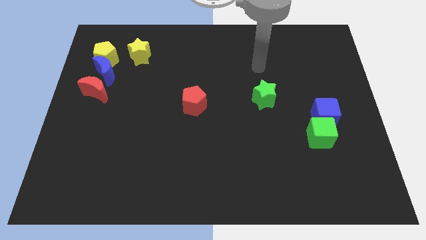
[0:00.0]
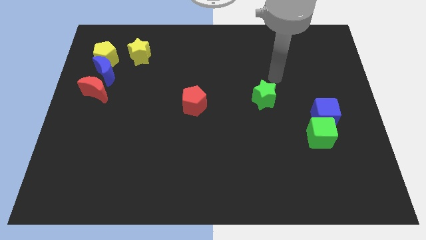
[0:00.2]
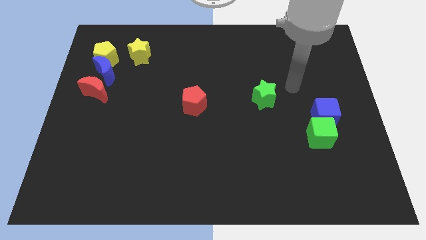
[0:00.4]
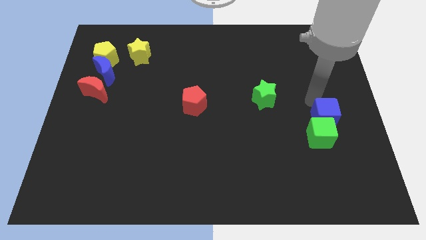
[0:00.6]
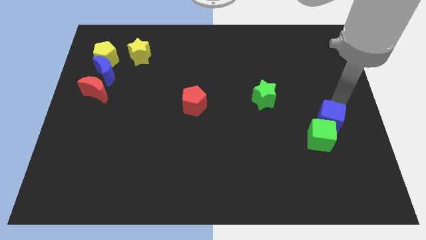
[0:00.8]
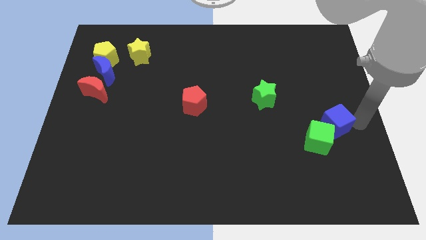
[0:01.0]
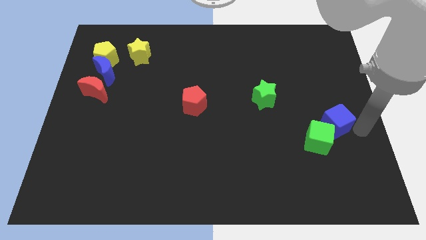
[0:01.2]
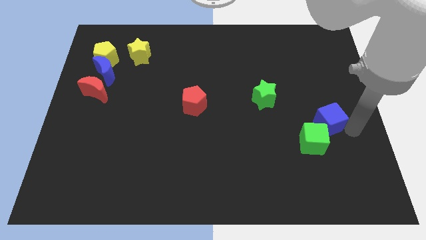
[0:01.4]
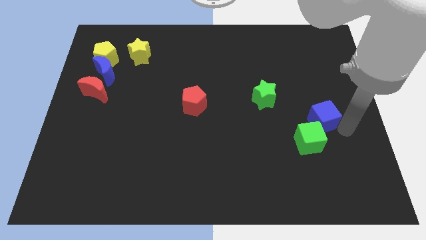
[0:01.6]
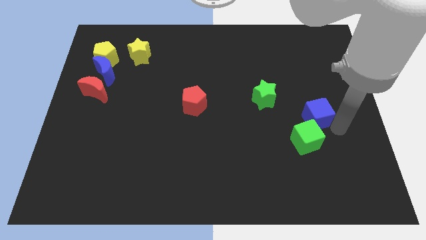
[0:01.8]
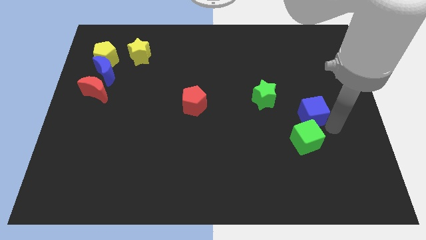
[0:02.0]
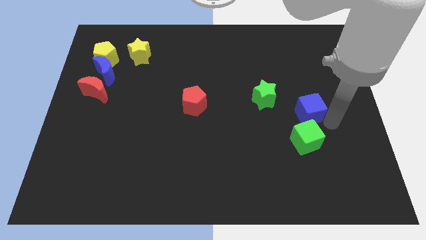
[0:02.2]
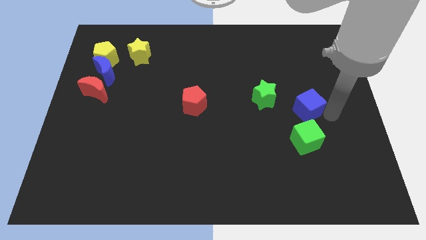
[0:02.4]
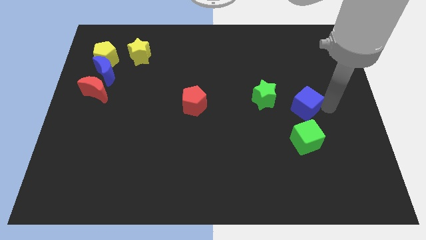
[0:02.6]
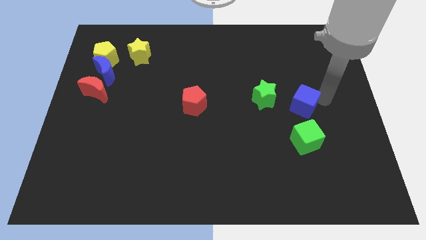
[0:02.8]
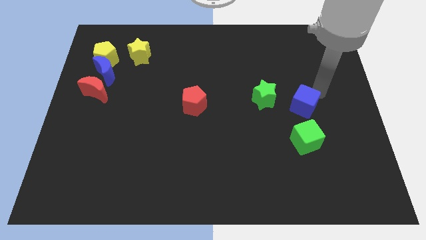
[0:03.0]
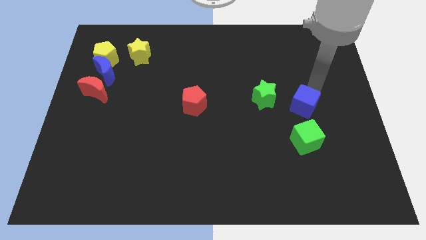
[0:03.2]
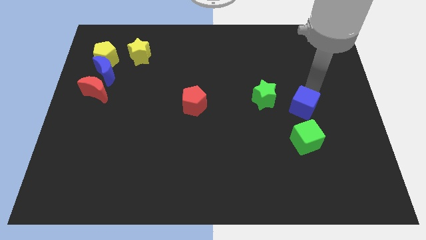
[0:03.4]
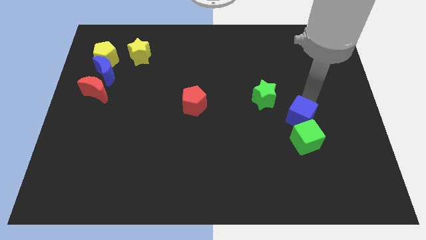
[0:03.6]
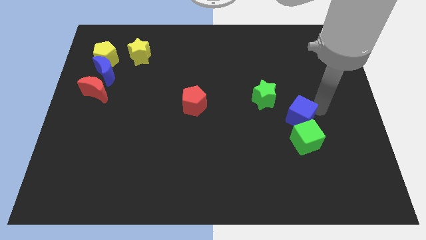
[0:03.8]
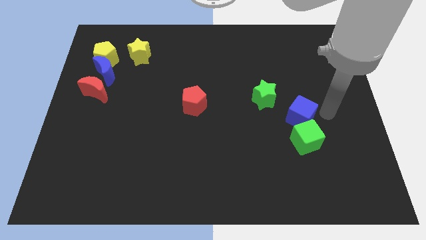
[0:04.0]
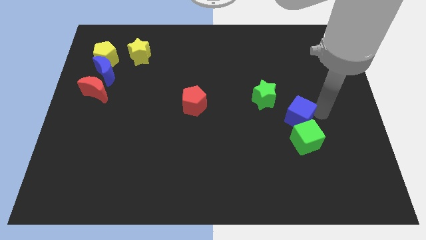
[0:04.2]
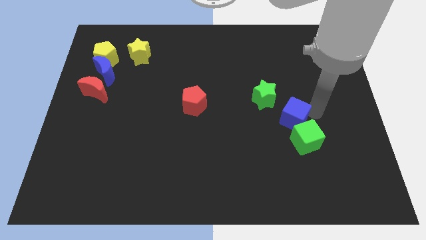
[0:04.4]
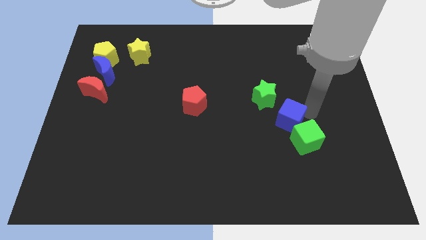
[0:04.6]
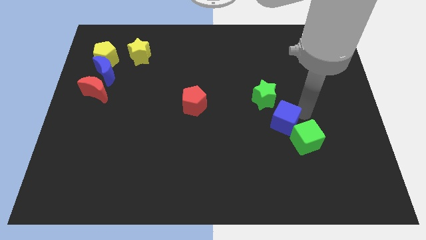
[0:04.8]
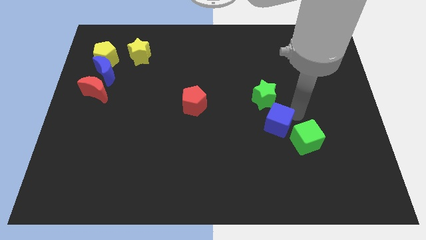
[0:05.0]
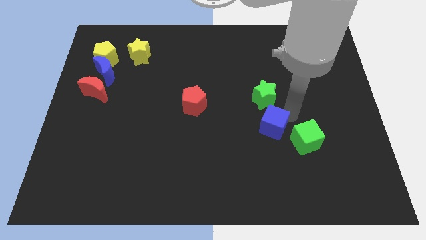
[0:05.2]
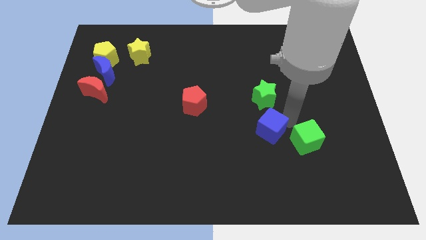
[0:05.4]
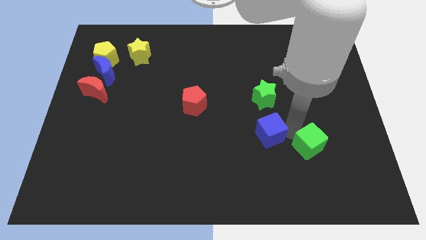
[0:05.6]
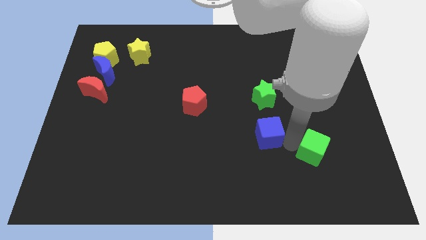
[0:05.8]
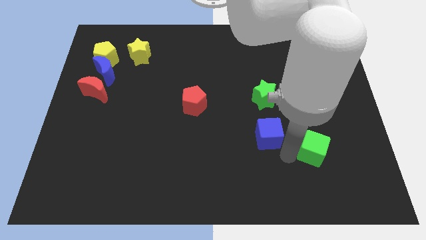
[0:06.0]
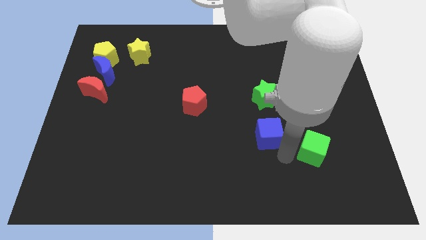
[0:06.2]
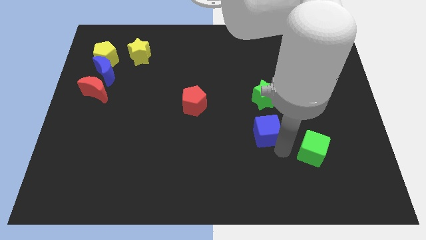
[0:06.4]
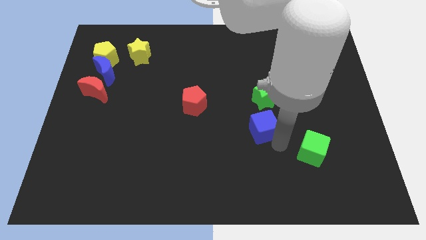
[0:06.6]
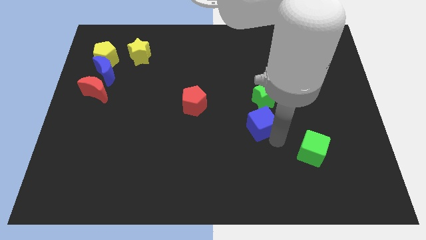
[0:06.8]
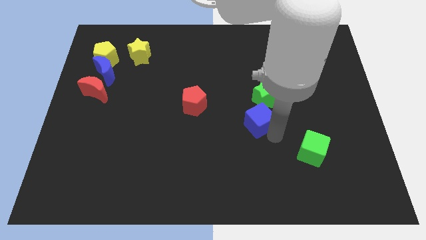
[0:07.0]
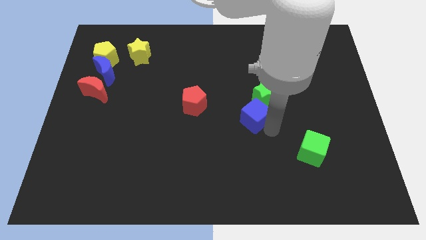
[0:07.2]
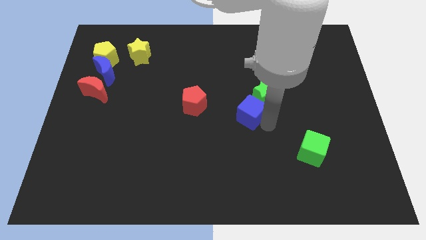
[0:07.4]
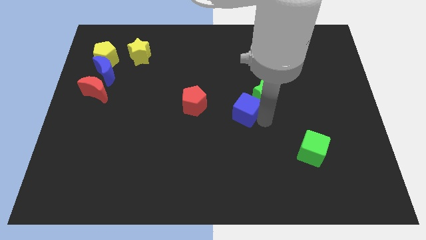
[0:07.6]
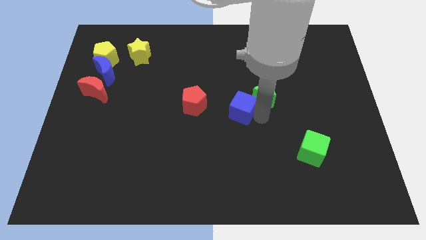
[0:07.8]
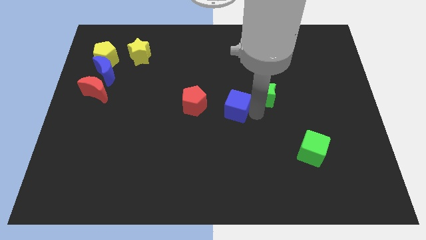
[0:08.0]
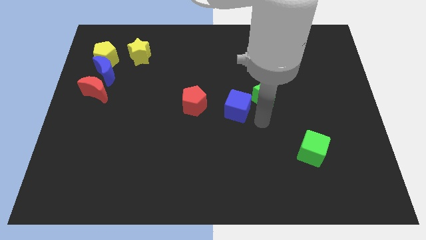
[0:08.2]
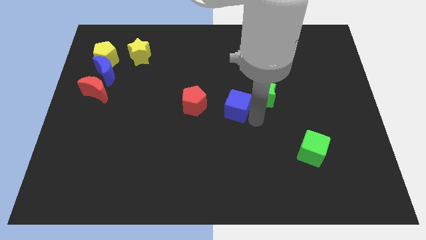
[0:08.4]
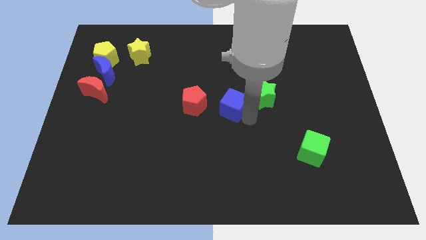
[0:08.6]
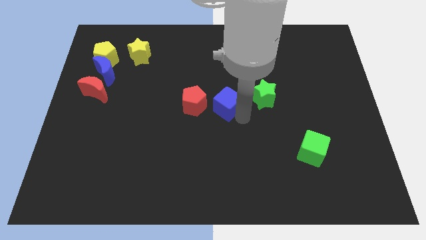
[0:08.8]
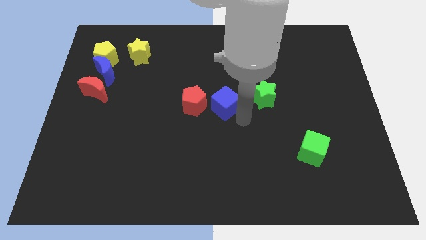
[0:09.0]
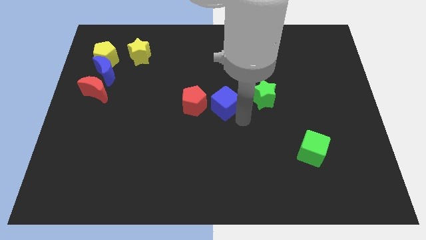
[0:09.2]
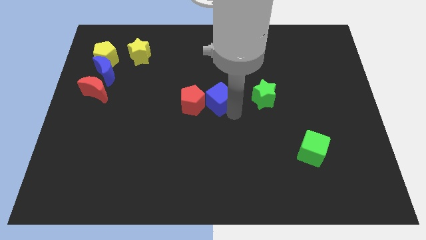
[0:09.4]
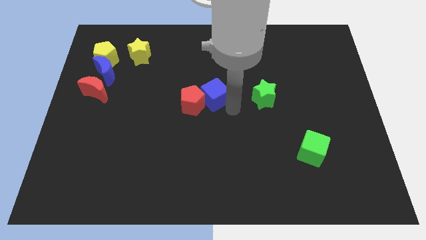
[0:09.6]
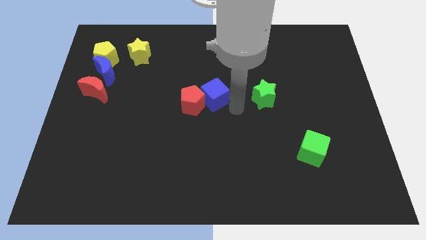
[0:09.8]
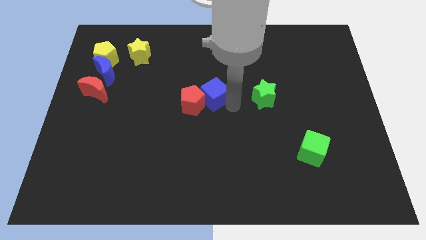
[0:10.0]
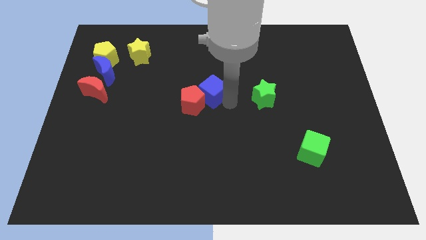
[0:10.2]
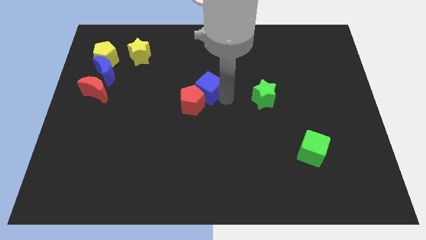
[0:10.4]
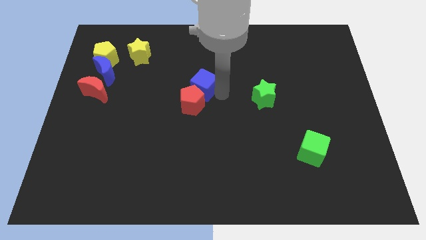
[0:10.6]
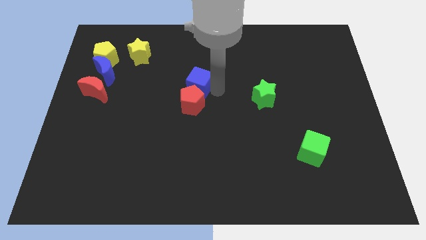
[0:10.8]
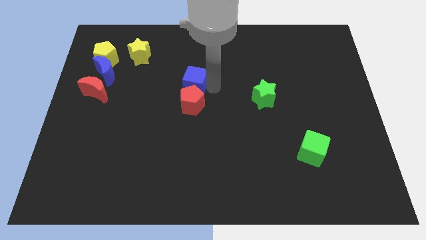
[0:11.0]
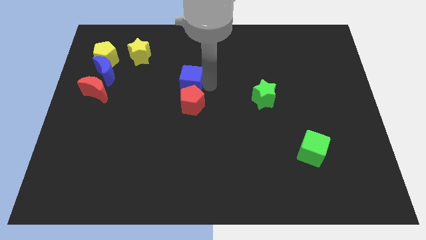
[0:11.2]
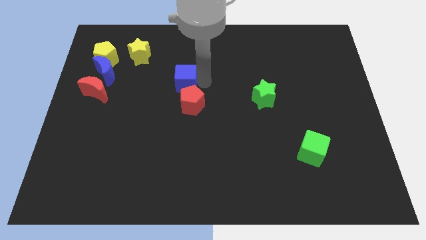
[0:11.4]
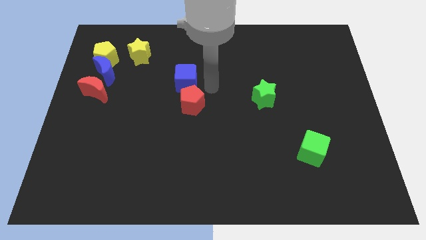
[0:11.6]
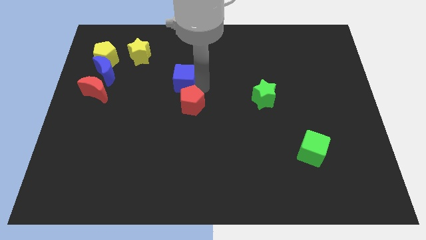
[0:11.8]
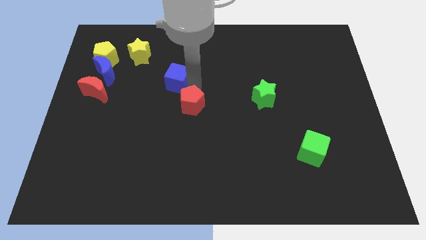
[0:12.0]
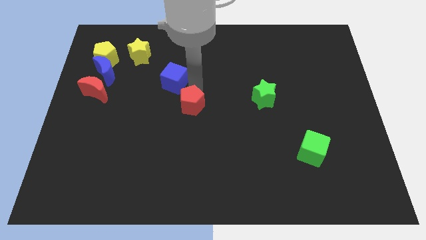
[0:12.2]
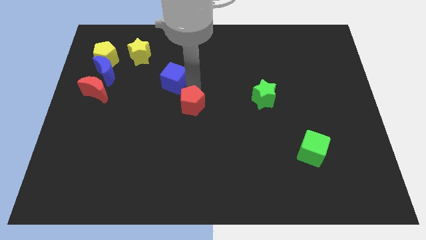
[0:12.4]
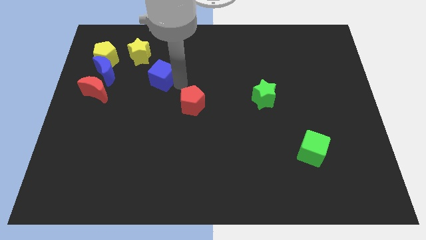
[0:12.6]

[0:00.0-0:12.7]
slide the blue cube to the right side of the blue moon

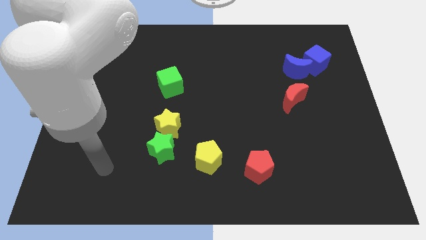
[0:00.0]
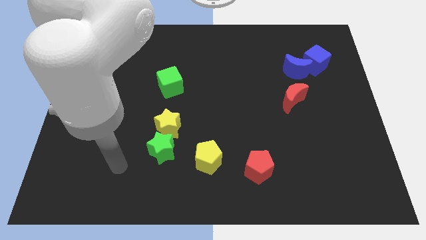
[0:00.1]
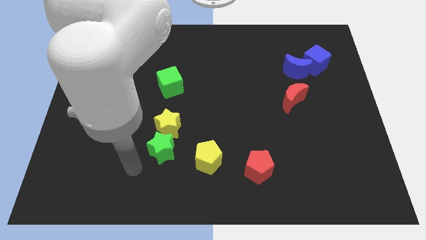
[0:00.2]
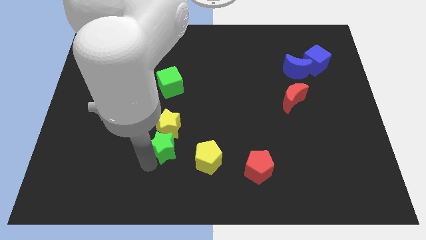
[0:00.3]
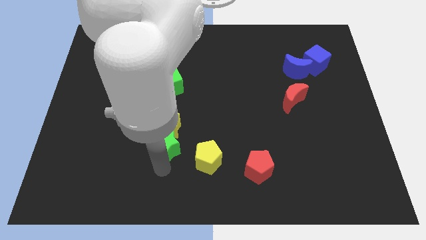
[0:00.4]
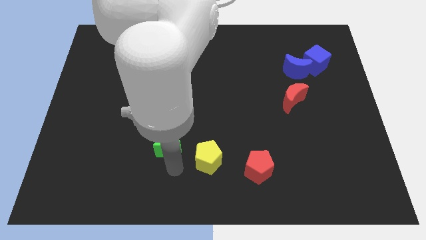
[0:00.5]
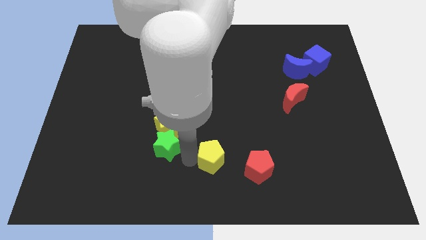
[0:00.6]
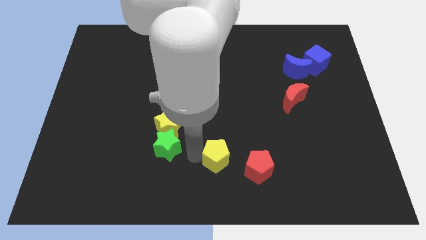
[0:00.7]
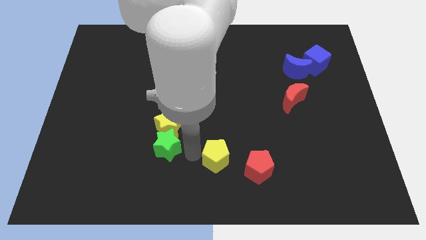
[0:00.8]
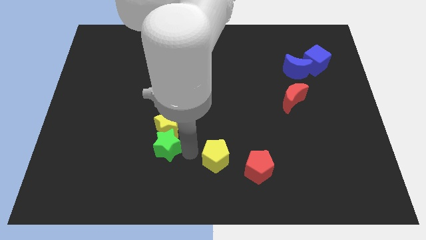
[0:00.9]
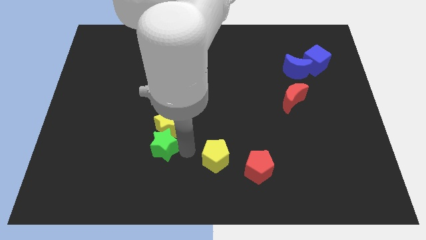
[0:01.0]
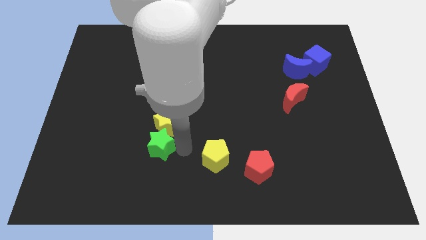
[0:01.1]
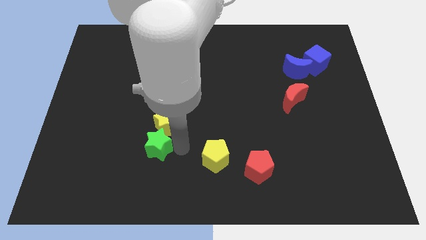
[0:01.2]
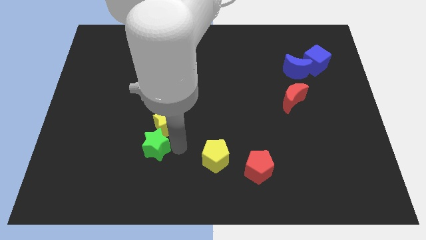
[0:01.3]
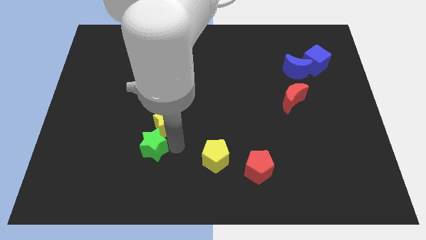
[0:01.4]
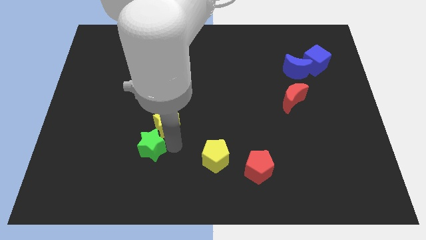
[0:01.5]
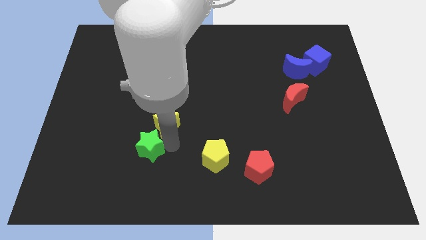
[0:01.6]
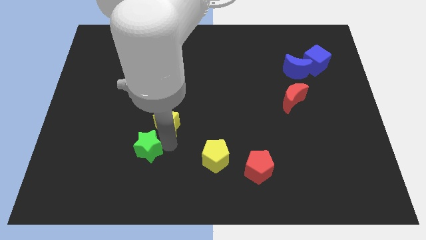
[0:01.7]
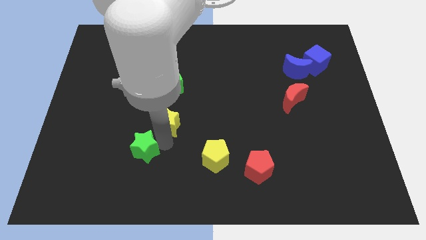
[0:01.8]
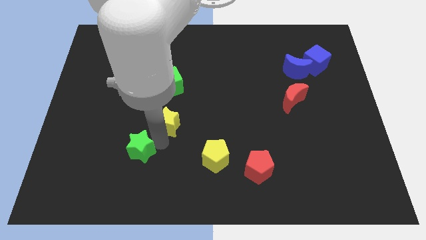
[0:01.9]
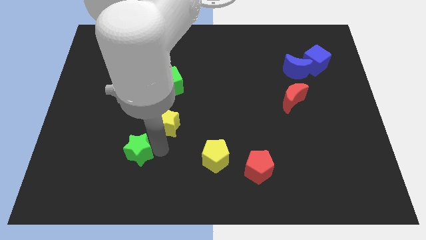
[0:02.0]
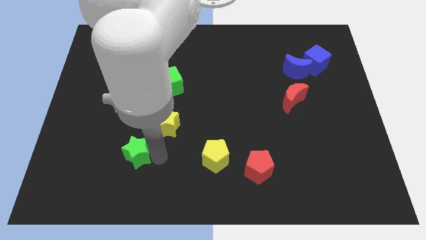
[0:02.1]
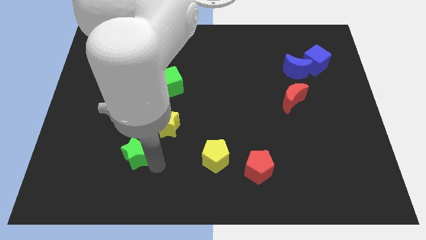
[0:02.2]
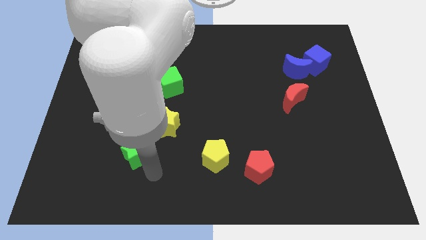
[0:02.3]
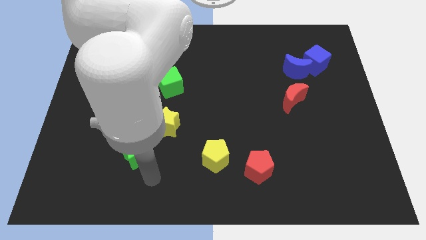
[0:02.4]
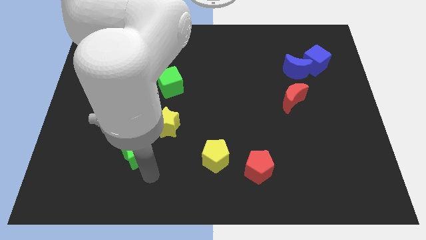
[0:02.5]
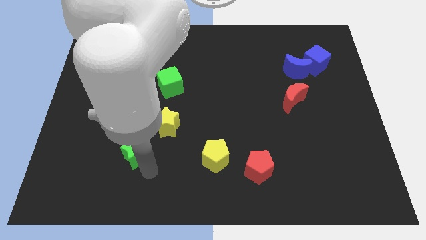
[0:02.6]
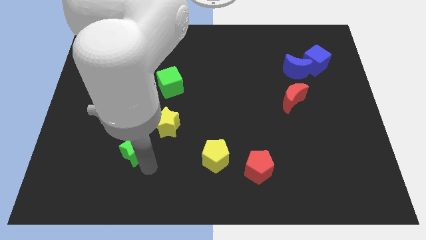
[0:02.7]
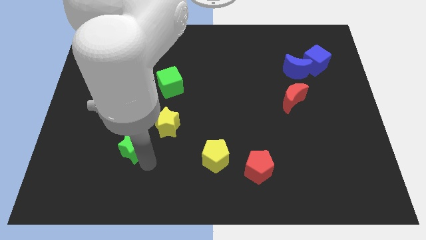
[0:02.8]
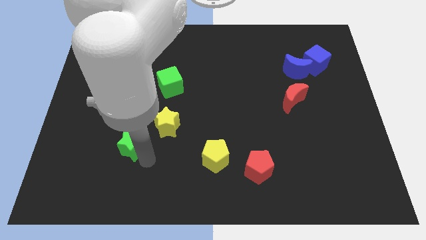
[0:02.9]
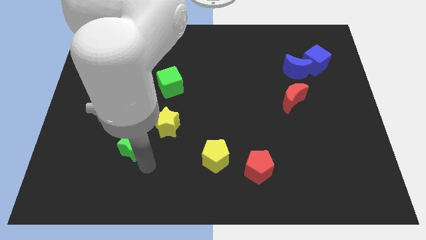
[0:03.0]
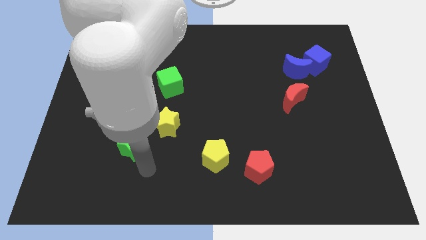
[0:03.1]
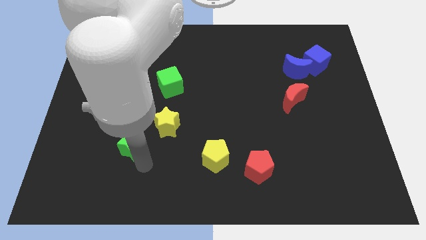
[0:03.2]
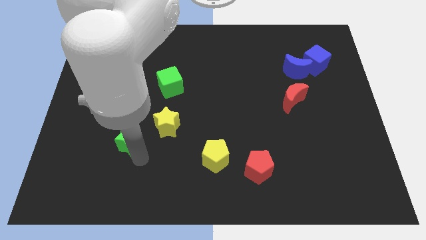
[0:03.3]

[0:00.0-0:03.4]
slide the green star just left of the yellow star
